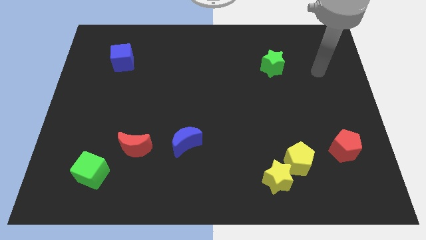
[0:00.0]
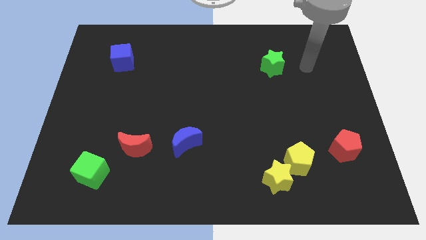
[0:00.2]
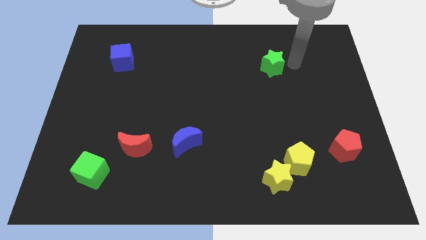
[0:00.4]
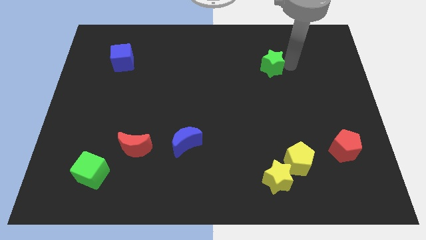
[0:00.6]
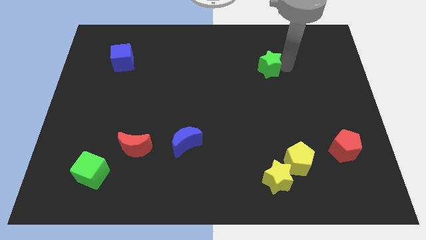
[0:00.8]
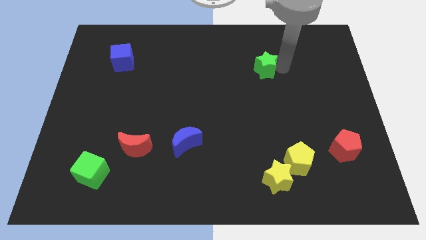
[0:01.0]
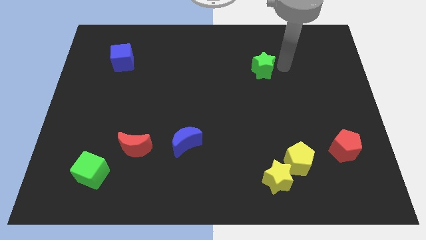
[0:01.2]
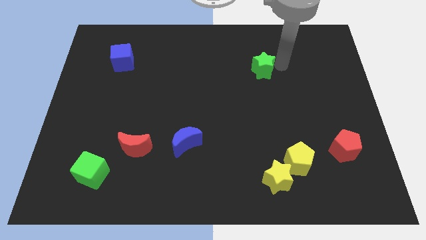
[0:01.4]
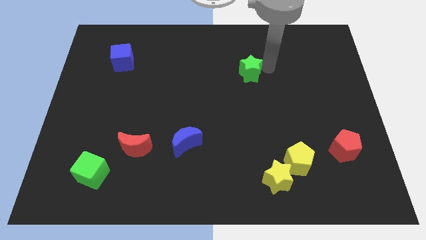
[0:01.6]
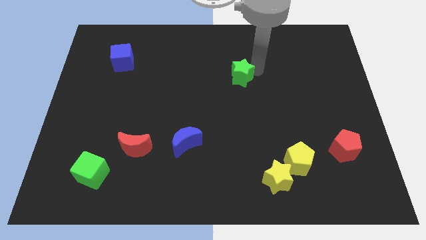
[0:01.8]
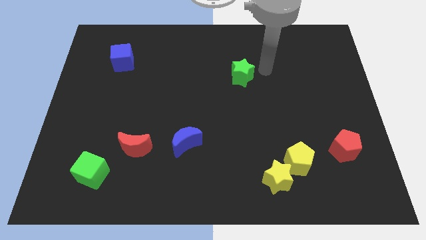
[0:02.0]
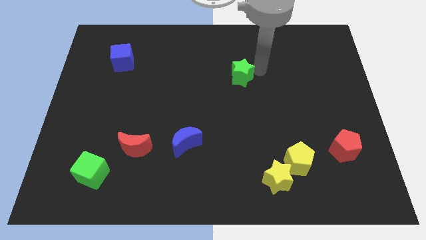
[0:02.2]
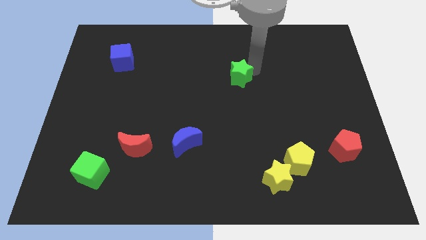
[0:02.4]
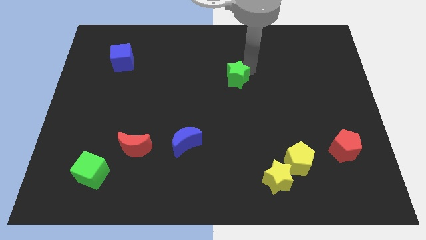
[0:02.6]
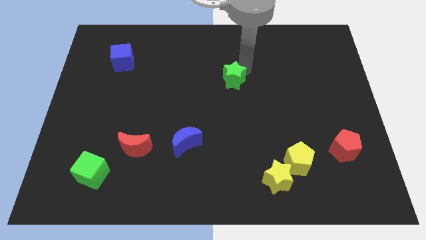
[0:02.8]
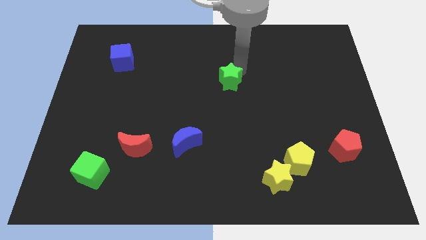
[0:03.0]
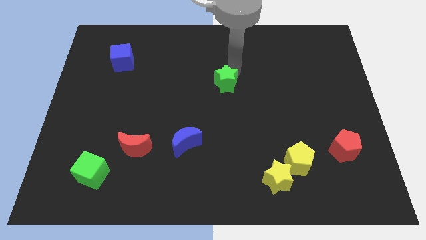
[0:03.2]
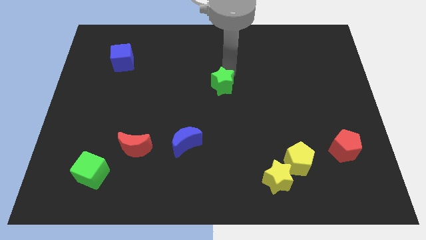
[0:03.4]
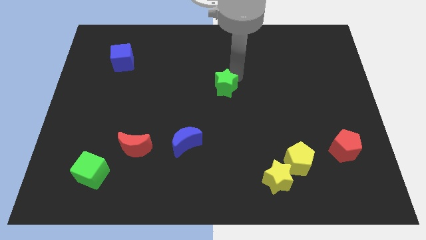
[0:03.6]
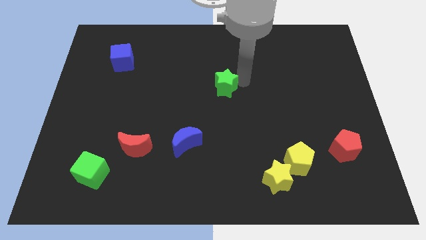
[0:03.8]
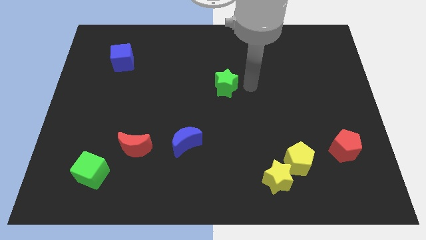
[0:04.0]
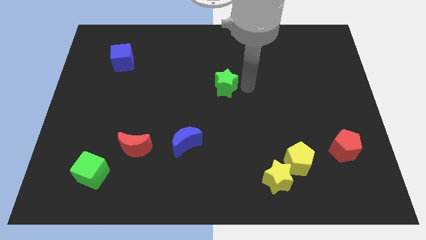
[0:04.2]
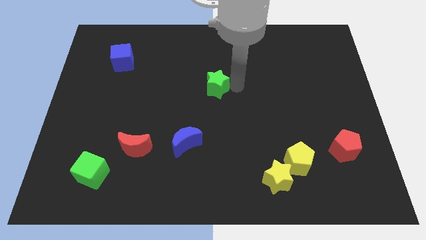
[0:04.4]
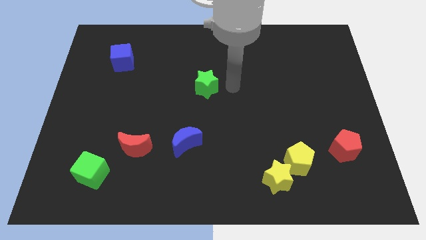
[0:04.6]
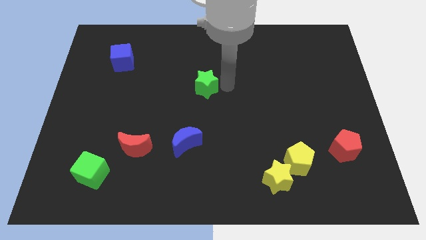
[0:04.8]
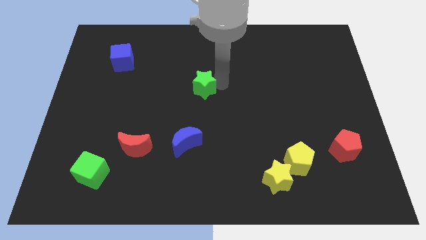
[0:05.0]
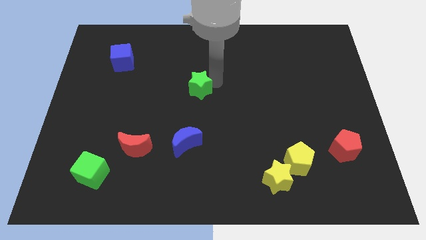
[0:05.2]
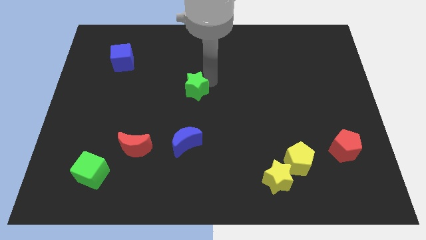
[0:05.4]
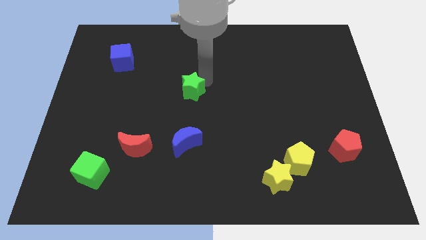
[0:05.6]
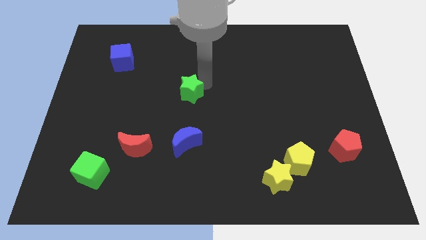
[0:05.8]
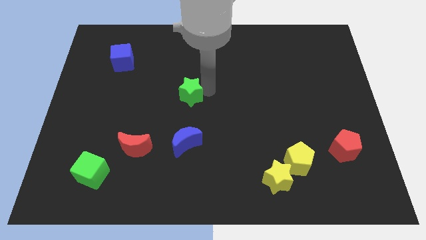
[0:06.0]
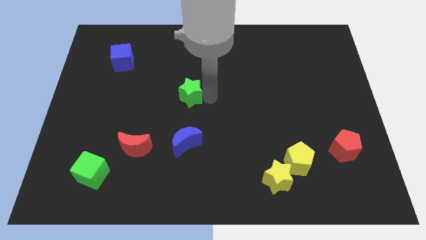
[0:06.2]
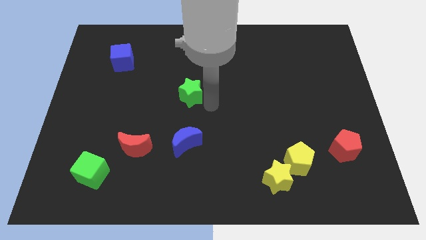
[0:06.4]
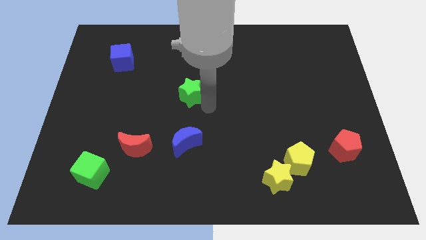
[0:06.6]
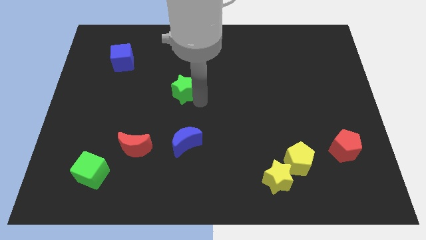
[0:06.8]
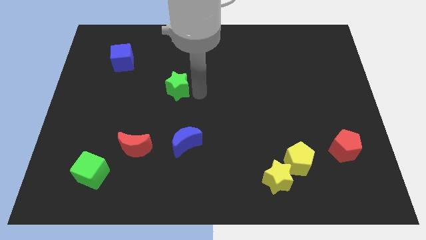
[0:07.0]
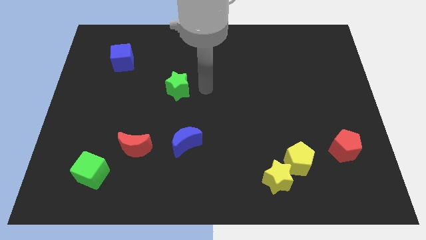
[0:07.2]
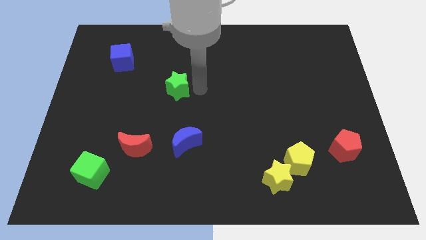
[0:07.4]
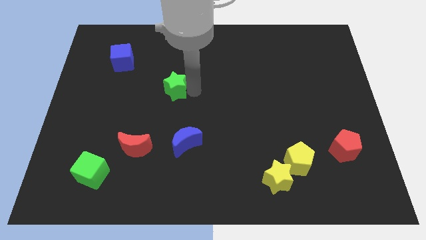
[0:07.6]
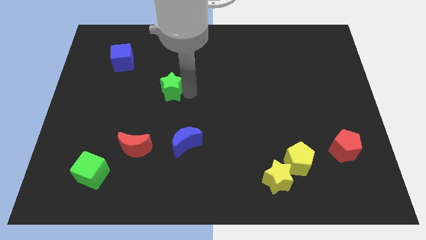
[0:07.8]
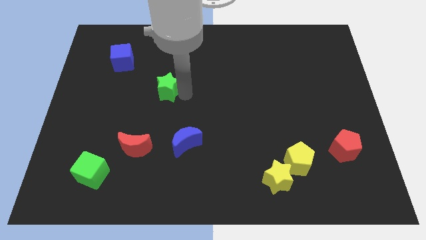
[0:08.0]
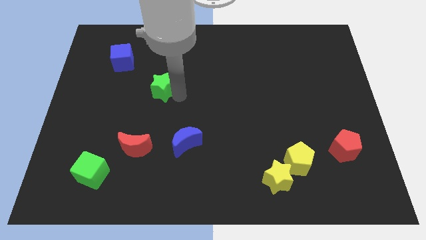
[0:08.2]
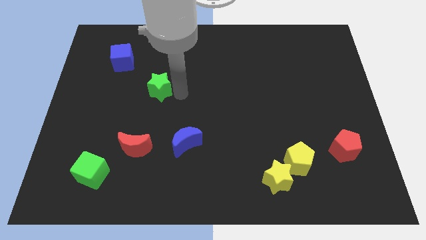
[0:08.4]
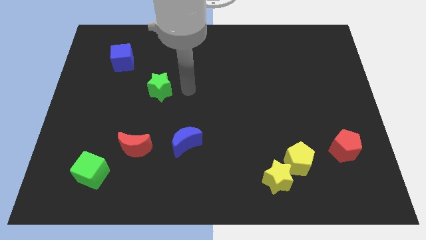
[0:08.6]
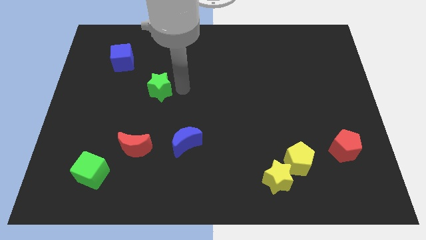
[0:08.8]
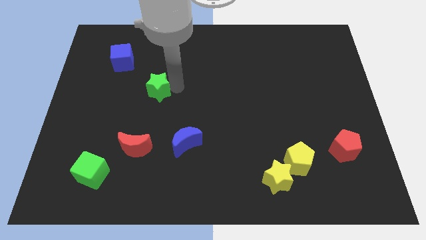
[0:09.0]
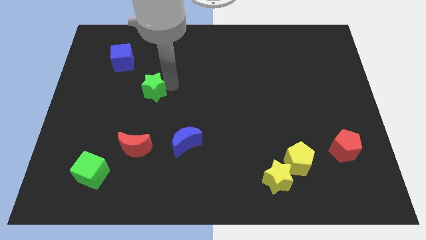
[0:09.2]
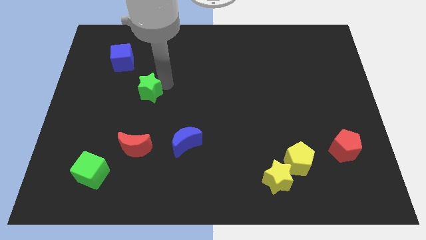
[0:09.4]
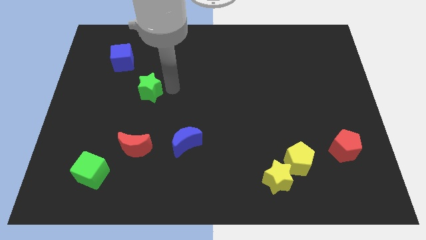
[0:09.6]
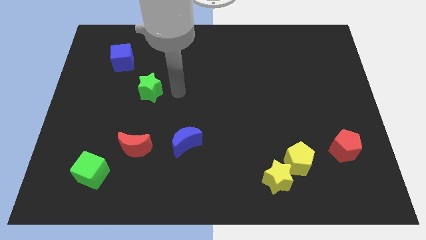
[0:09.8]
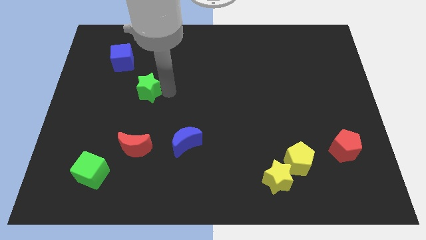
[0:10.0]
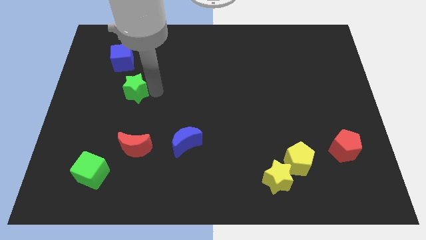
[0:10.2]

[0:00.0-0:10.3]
slide the green star below the blue cube

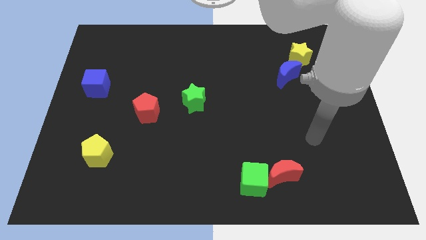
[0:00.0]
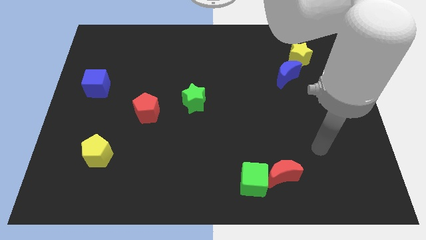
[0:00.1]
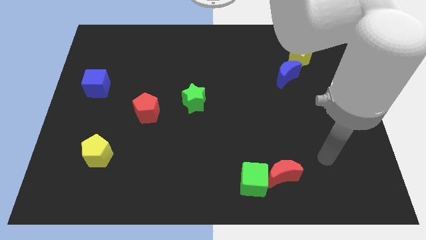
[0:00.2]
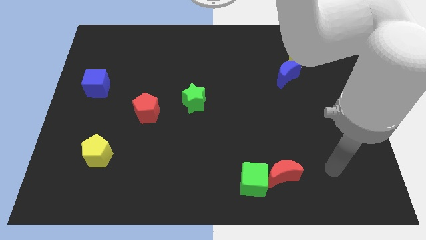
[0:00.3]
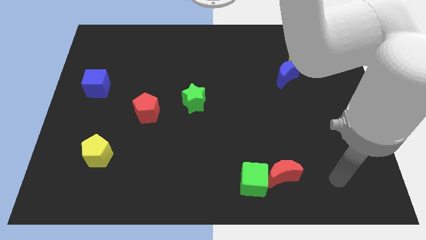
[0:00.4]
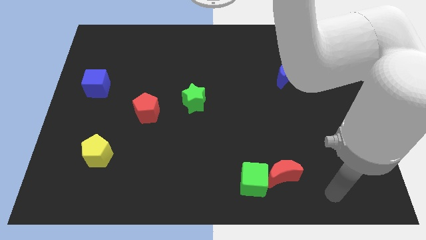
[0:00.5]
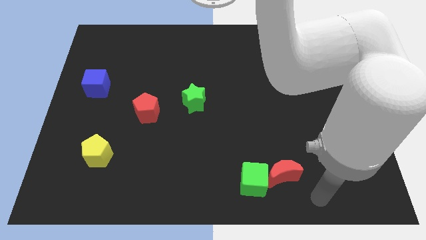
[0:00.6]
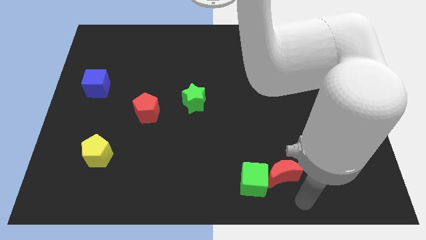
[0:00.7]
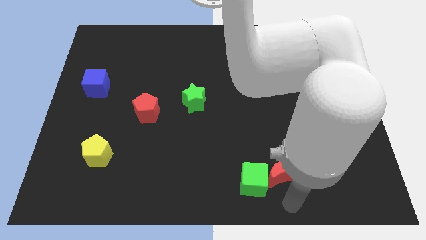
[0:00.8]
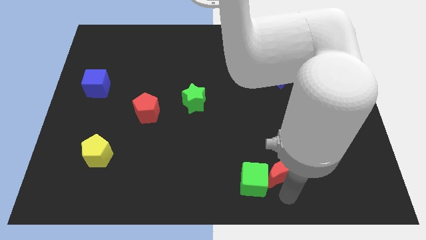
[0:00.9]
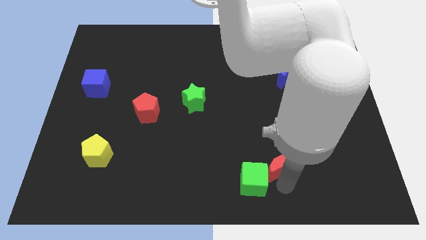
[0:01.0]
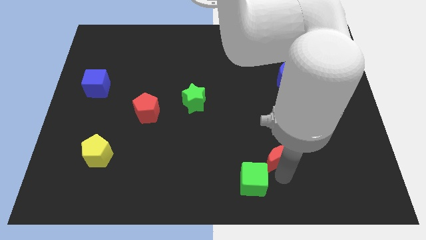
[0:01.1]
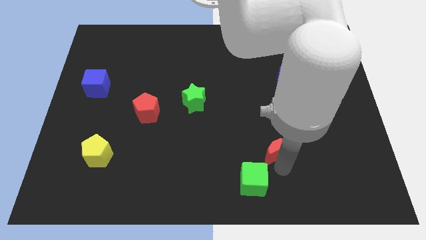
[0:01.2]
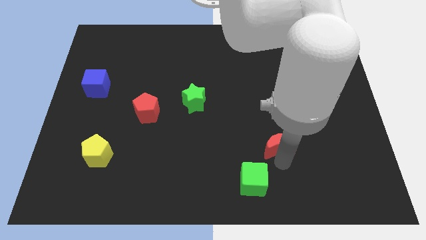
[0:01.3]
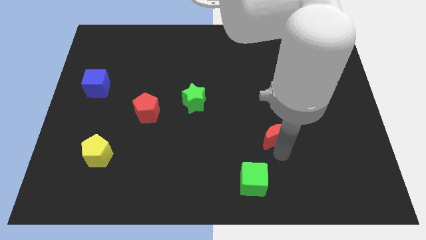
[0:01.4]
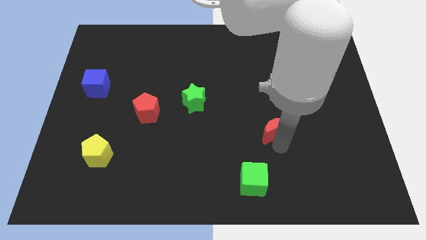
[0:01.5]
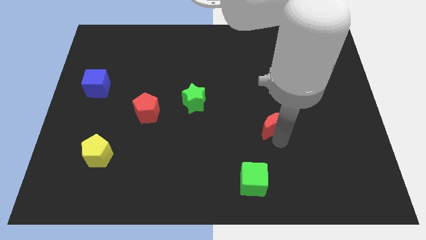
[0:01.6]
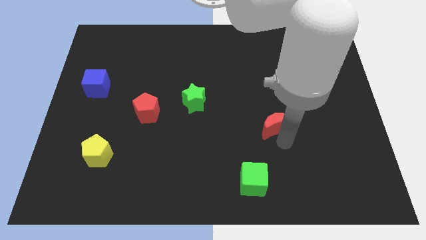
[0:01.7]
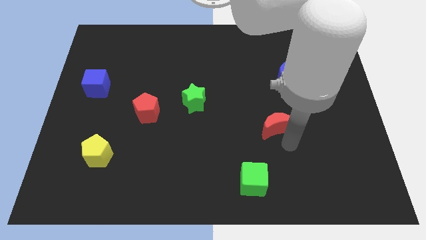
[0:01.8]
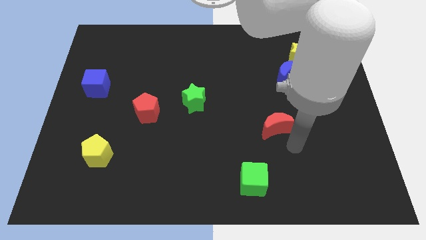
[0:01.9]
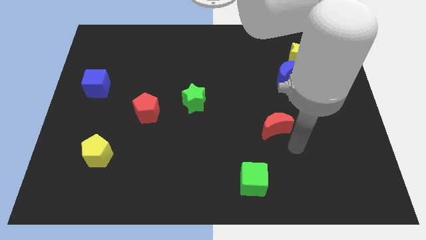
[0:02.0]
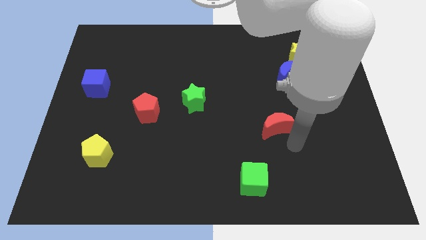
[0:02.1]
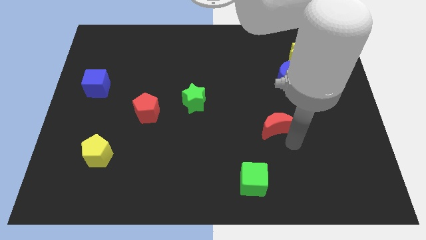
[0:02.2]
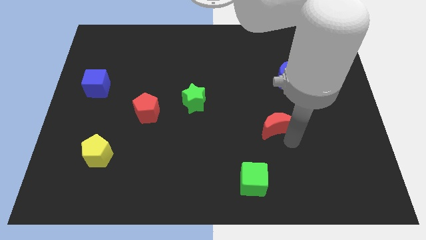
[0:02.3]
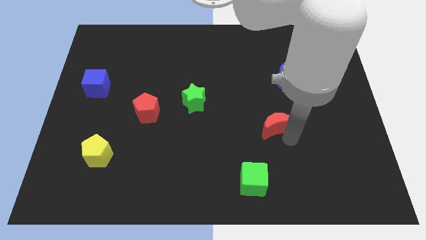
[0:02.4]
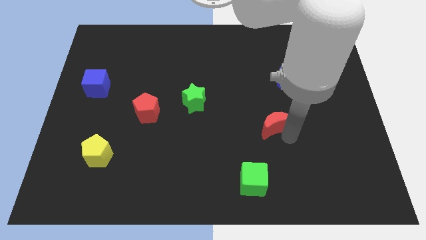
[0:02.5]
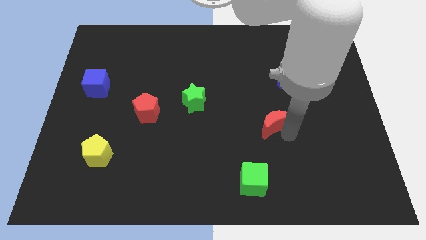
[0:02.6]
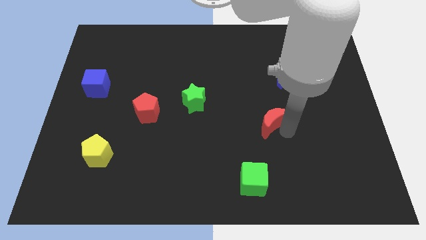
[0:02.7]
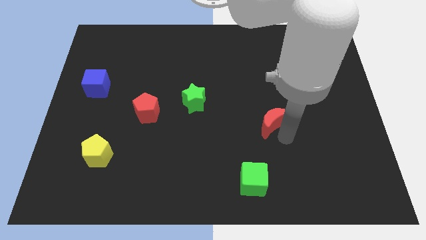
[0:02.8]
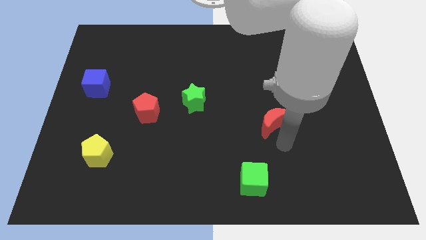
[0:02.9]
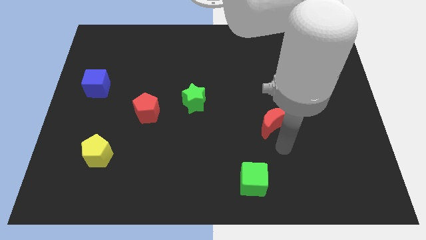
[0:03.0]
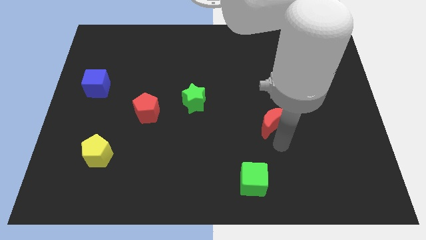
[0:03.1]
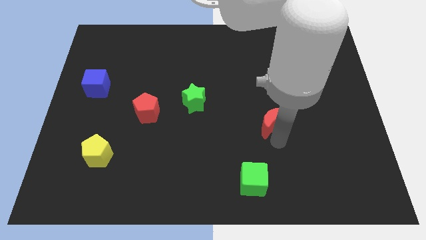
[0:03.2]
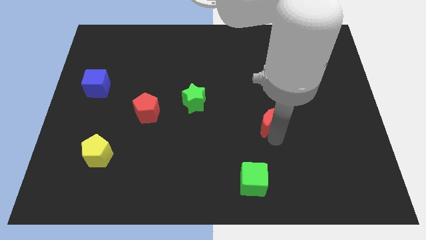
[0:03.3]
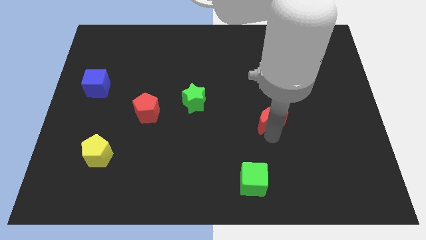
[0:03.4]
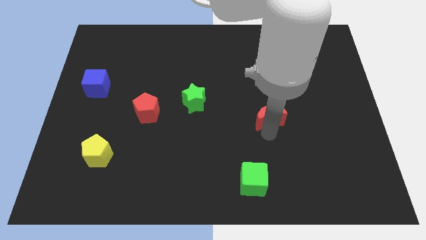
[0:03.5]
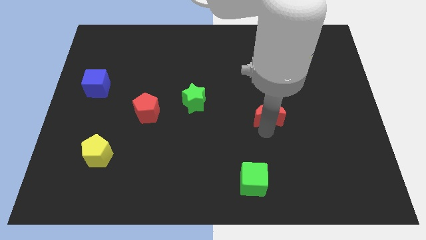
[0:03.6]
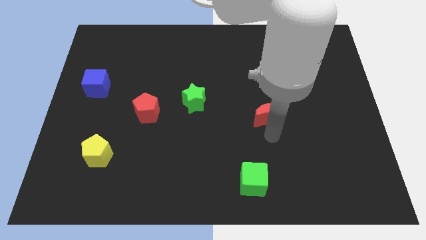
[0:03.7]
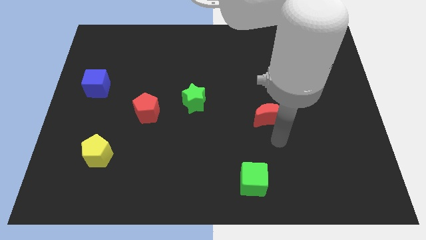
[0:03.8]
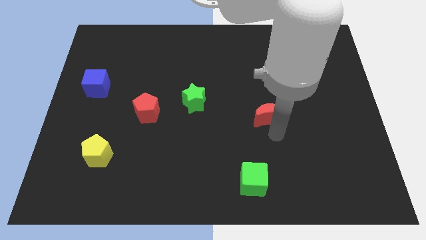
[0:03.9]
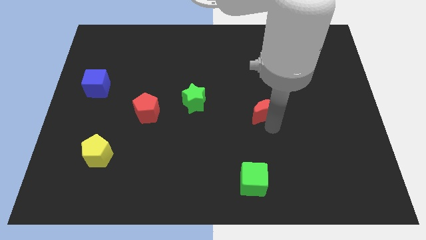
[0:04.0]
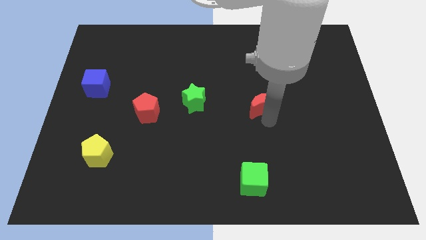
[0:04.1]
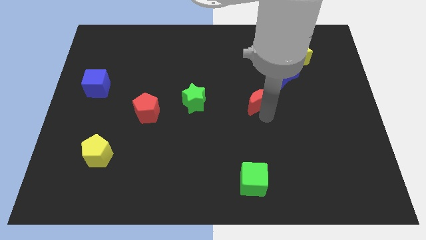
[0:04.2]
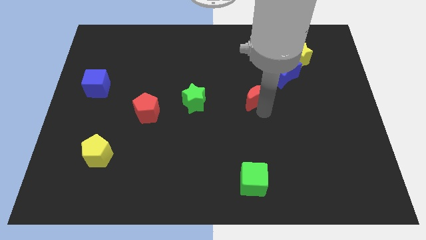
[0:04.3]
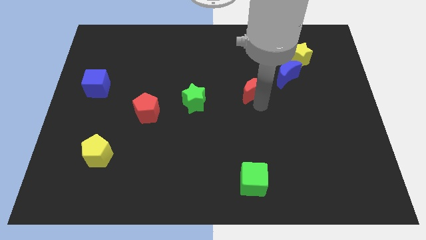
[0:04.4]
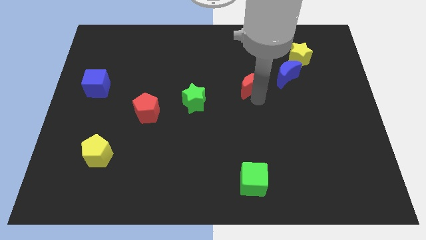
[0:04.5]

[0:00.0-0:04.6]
move the red moon left of the blue moon
